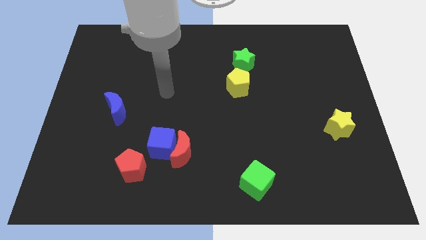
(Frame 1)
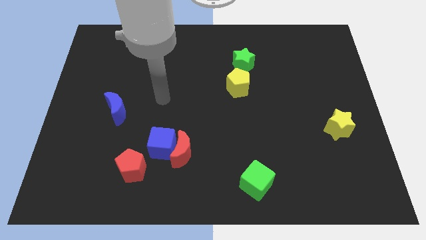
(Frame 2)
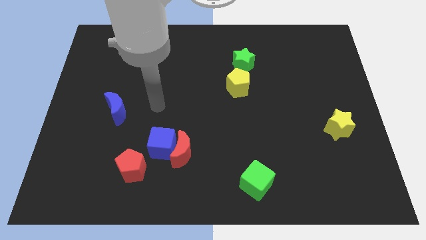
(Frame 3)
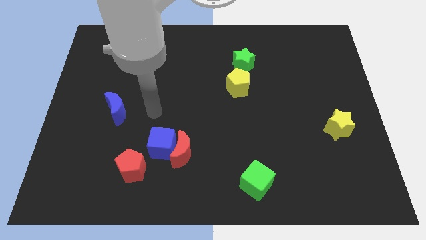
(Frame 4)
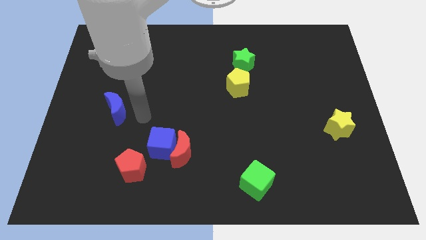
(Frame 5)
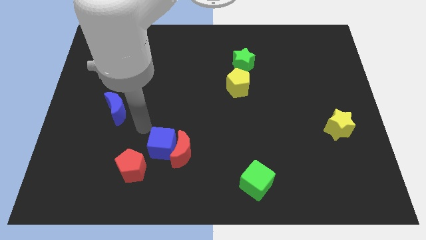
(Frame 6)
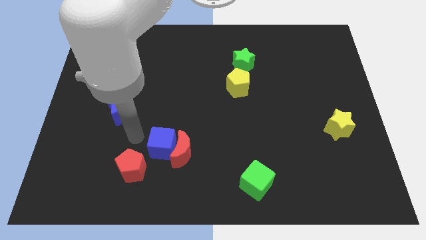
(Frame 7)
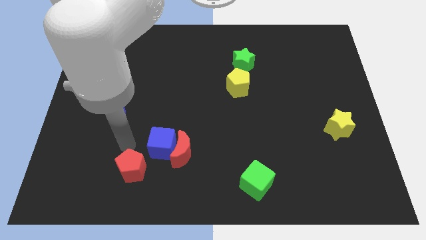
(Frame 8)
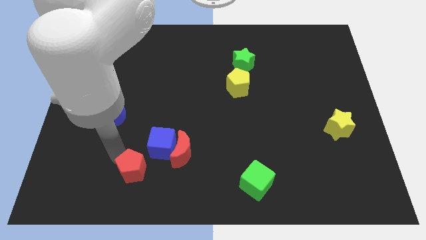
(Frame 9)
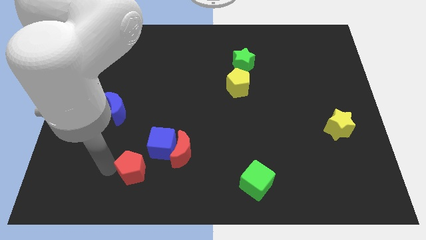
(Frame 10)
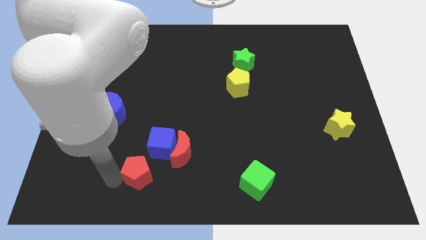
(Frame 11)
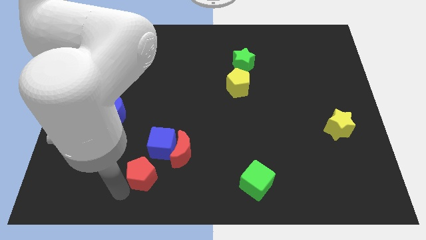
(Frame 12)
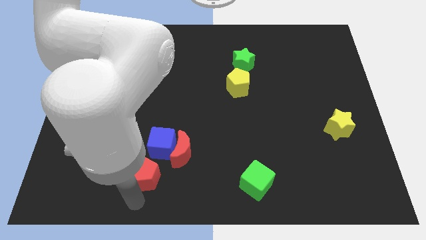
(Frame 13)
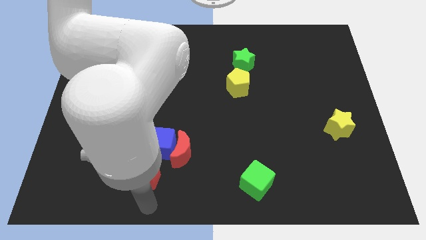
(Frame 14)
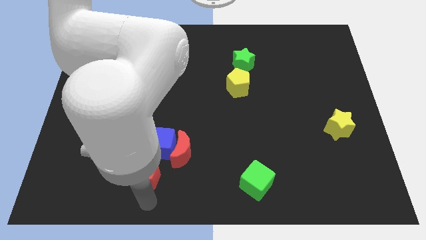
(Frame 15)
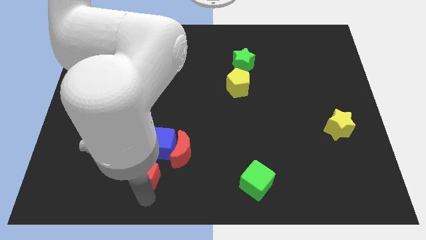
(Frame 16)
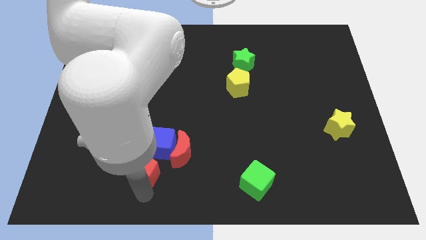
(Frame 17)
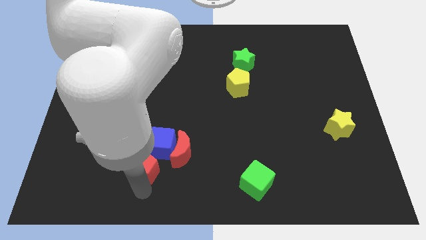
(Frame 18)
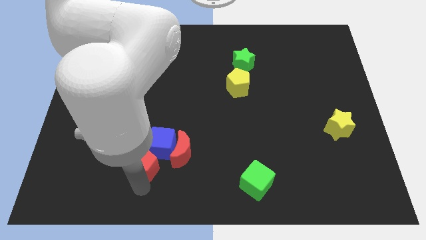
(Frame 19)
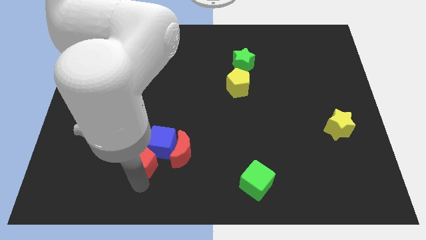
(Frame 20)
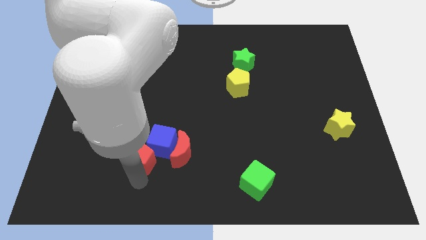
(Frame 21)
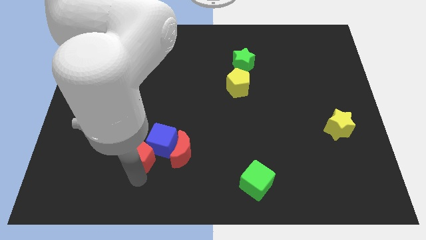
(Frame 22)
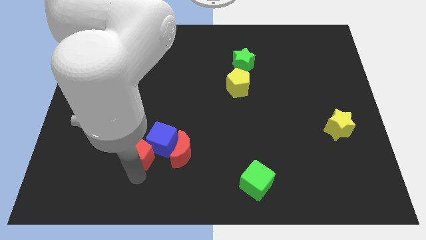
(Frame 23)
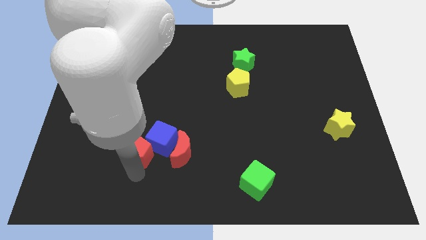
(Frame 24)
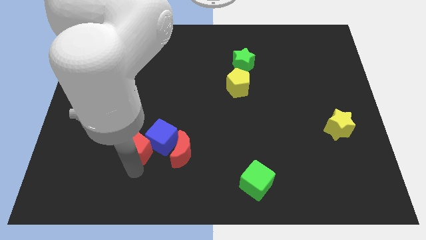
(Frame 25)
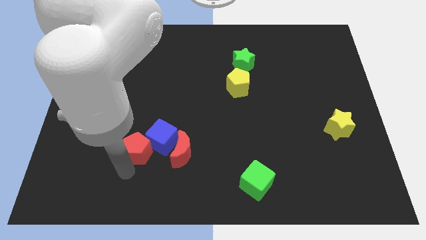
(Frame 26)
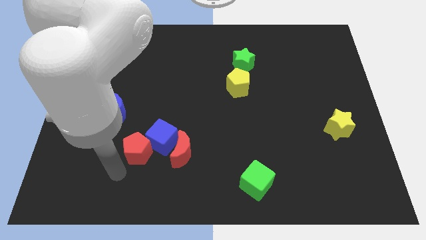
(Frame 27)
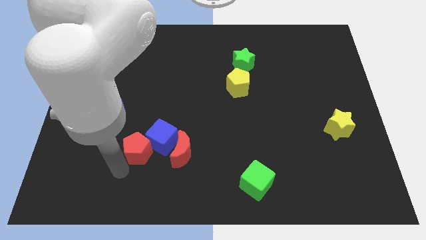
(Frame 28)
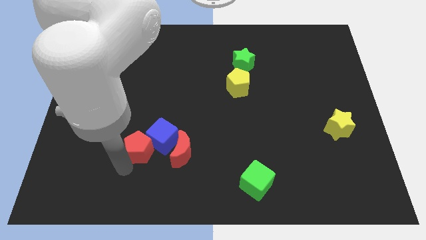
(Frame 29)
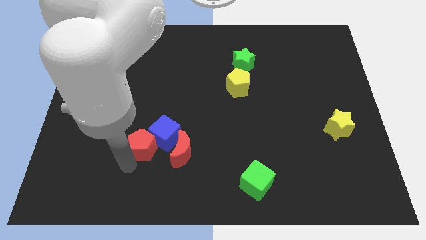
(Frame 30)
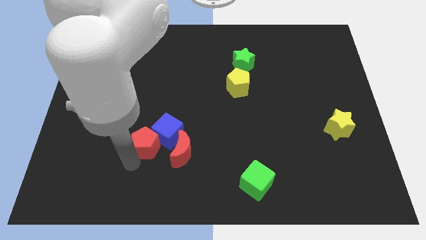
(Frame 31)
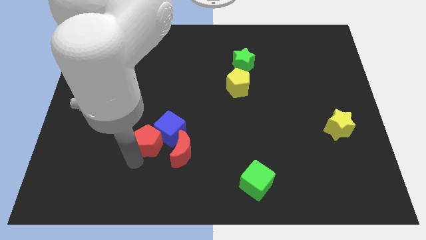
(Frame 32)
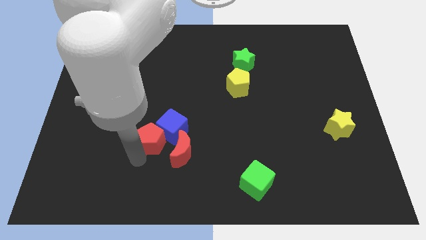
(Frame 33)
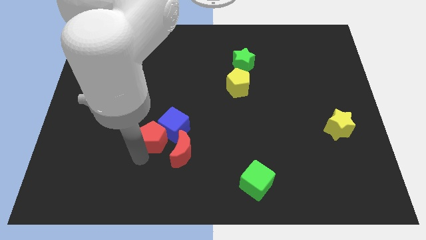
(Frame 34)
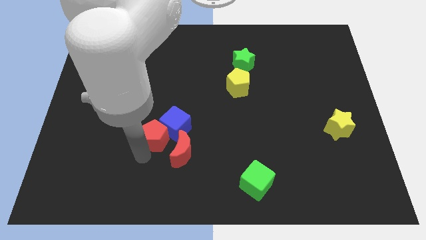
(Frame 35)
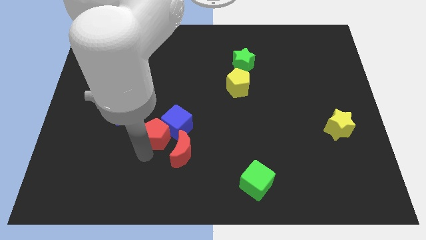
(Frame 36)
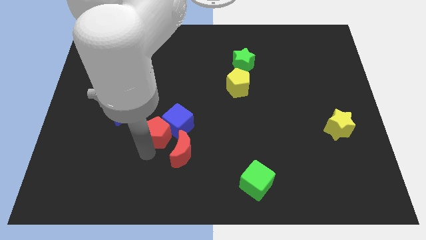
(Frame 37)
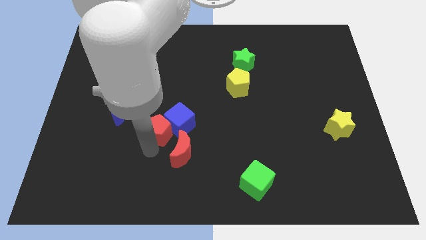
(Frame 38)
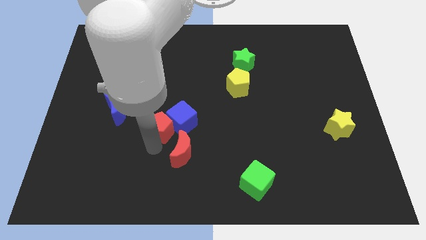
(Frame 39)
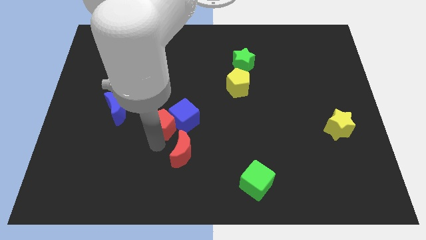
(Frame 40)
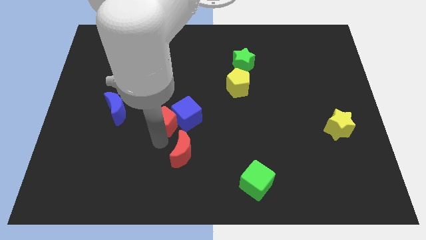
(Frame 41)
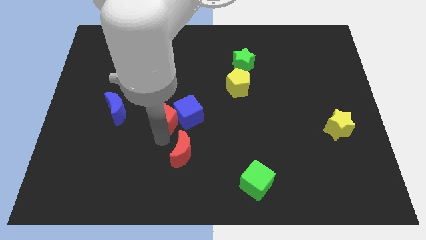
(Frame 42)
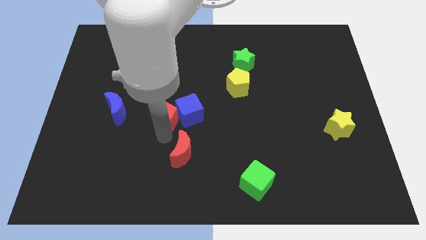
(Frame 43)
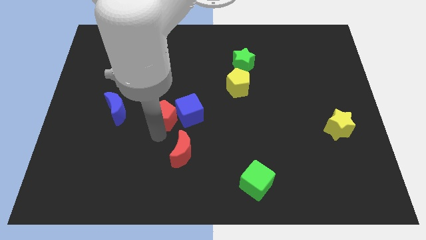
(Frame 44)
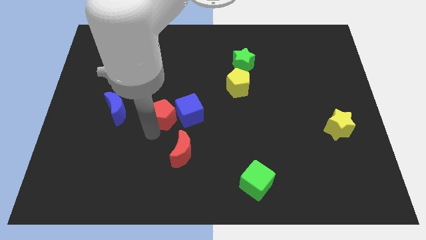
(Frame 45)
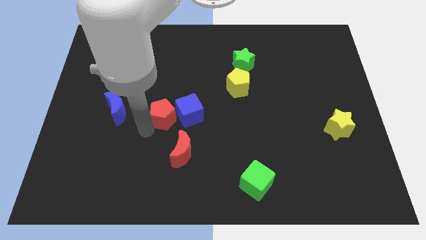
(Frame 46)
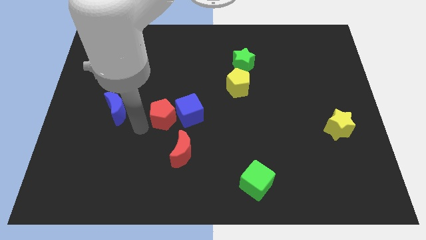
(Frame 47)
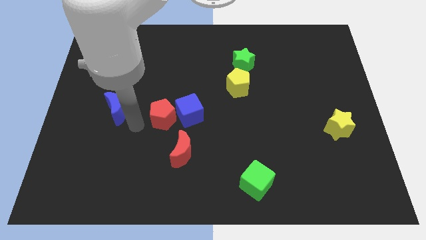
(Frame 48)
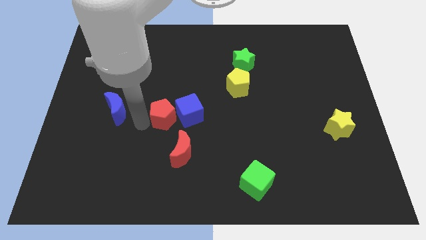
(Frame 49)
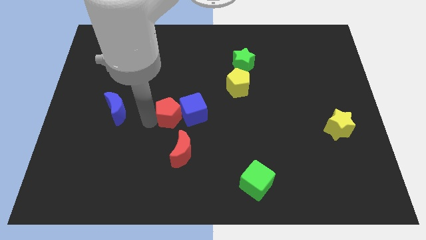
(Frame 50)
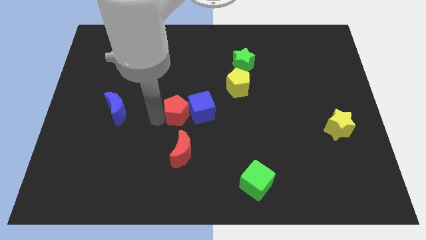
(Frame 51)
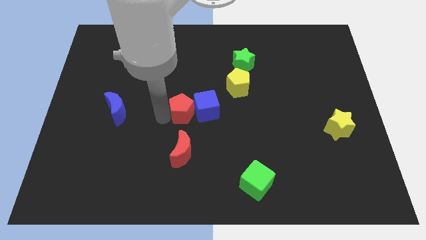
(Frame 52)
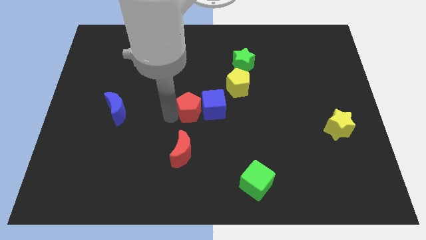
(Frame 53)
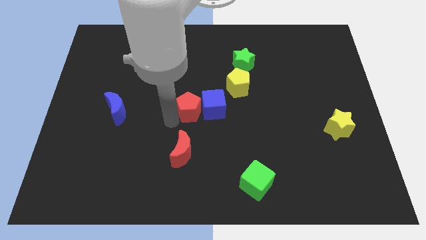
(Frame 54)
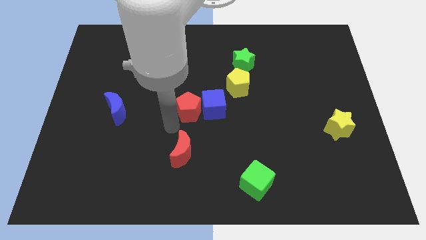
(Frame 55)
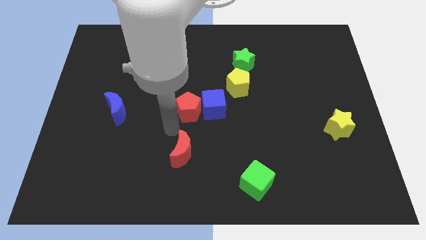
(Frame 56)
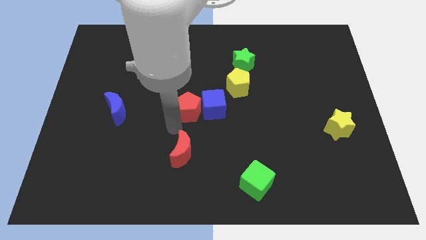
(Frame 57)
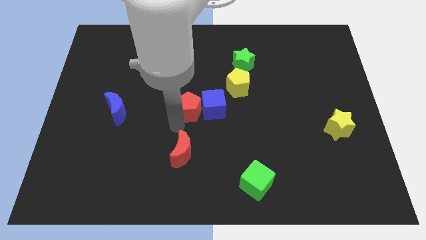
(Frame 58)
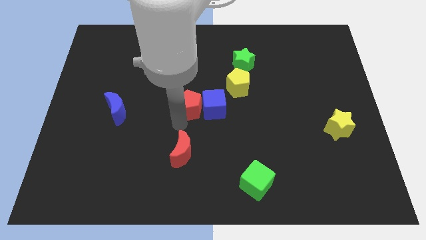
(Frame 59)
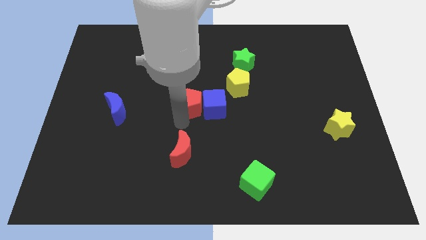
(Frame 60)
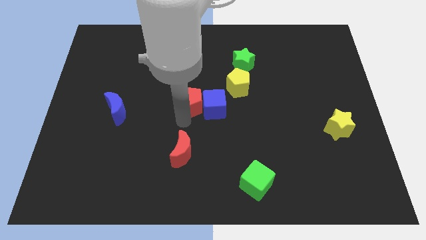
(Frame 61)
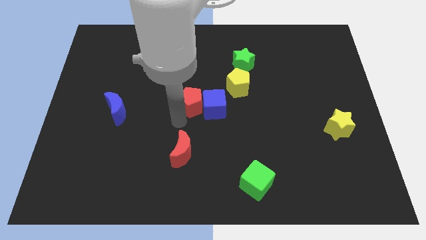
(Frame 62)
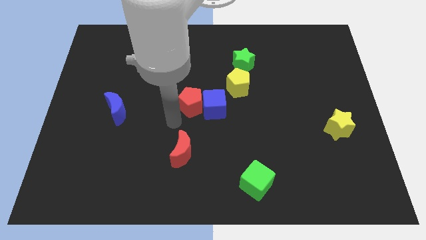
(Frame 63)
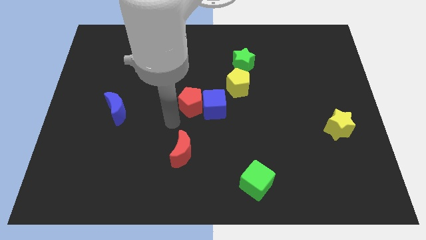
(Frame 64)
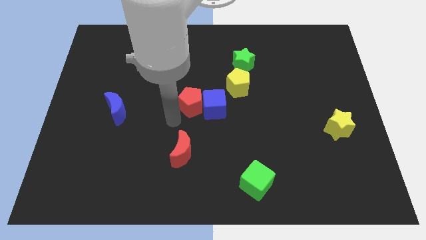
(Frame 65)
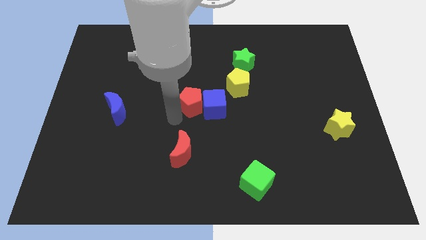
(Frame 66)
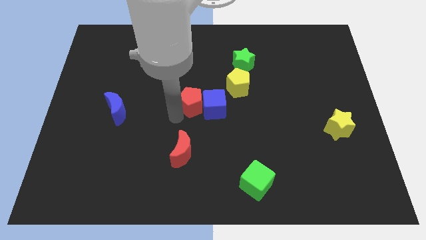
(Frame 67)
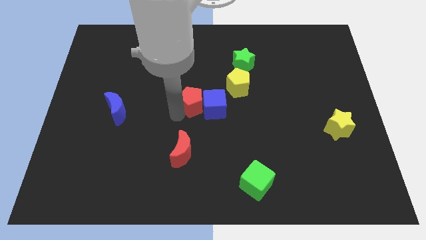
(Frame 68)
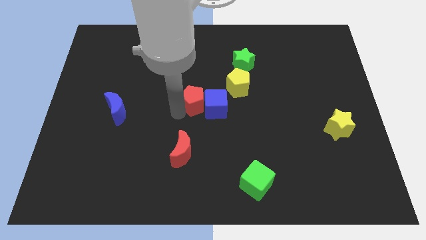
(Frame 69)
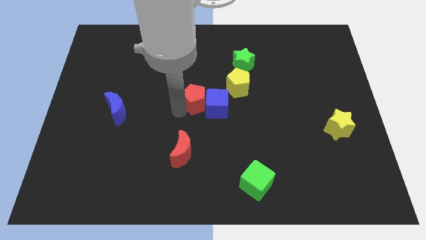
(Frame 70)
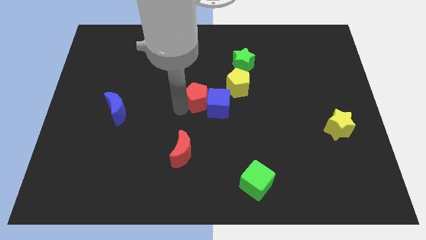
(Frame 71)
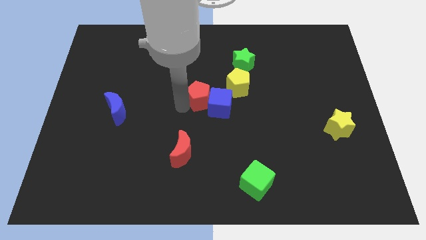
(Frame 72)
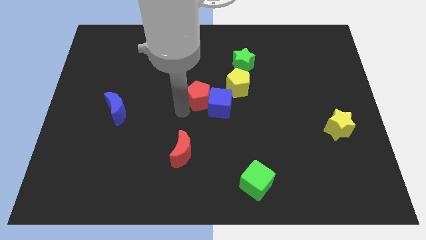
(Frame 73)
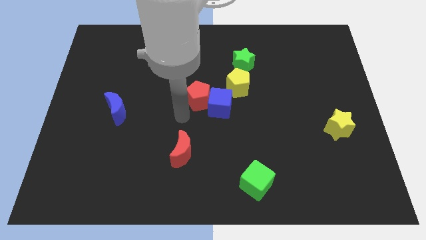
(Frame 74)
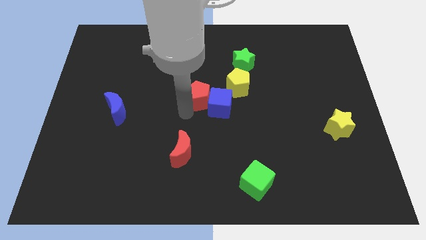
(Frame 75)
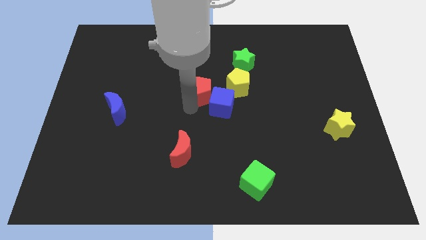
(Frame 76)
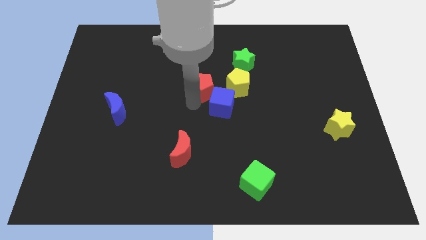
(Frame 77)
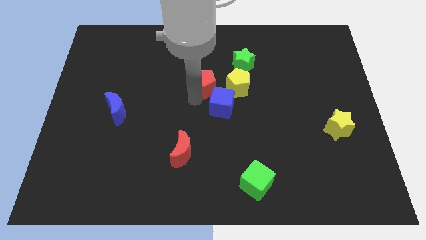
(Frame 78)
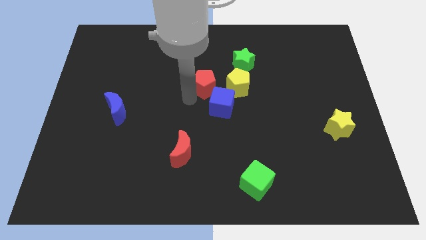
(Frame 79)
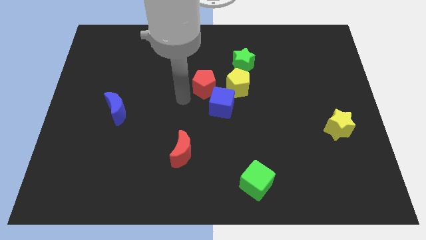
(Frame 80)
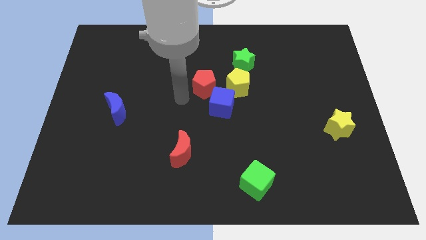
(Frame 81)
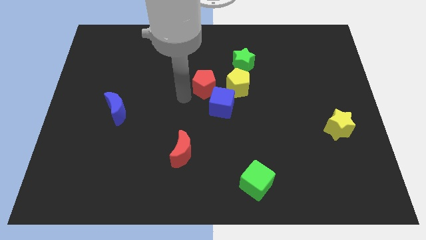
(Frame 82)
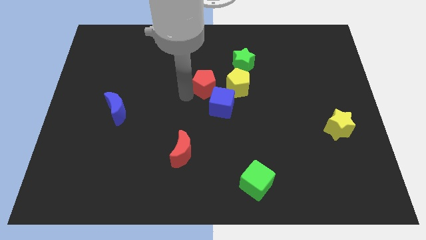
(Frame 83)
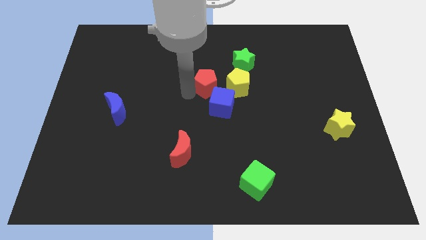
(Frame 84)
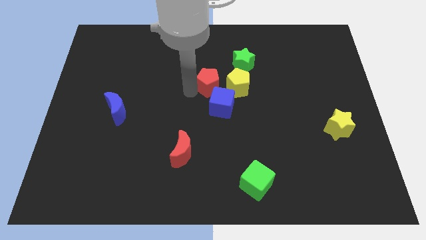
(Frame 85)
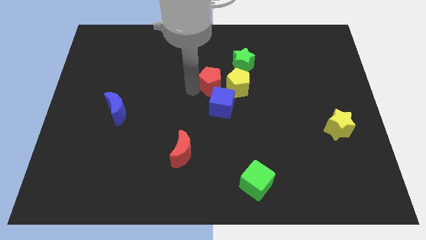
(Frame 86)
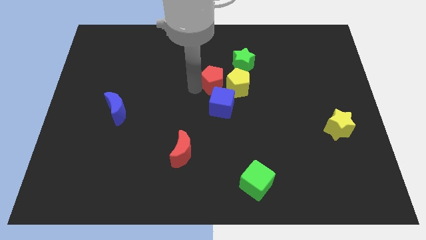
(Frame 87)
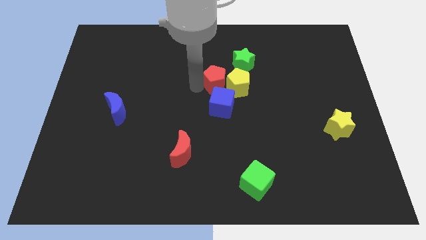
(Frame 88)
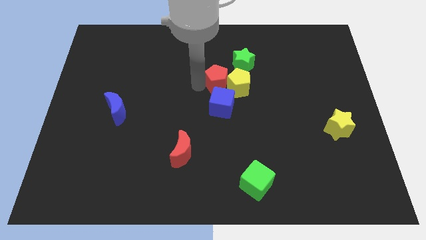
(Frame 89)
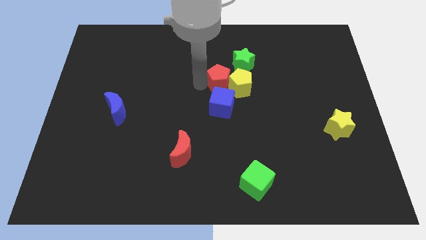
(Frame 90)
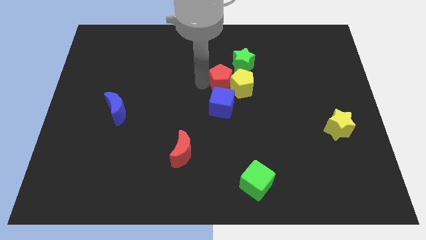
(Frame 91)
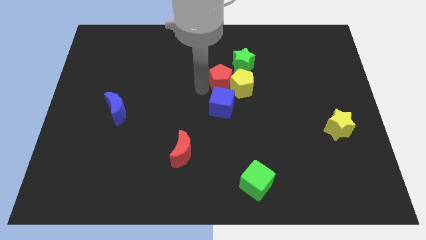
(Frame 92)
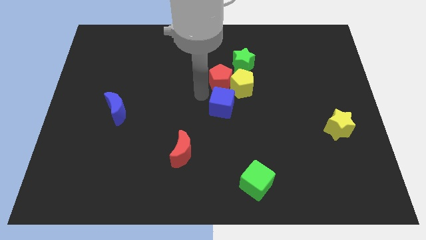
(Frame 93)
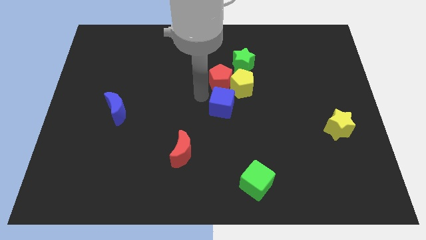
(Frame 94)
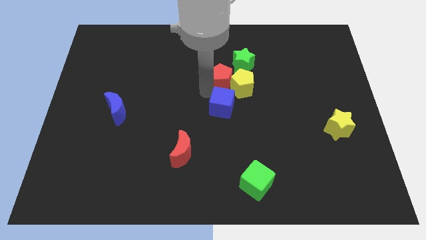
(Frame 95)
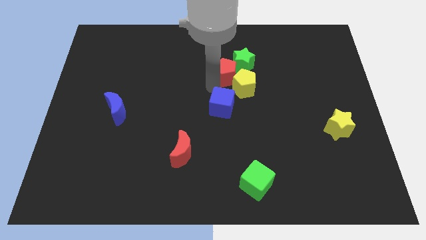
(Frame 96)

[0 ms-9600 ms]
move the red pentagon close to the green star
